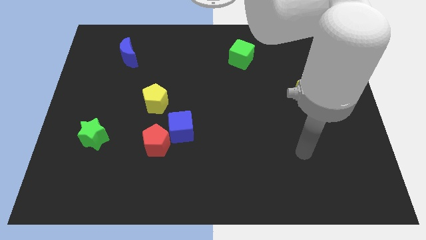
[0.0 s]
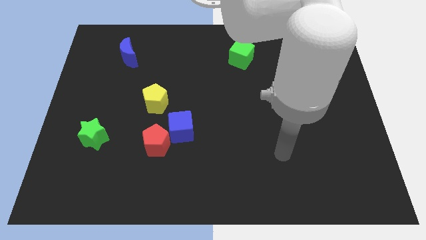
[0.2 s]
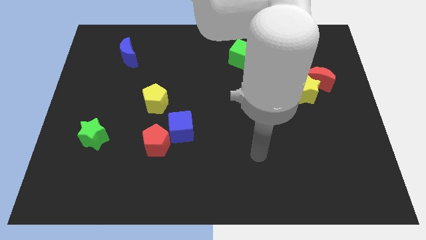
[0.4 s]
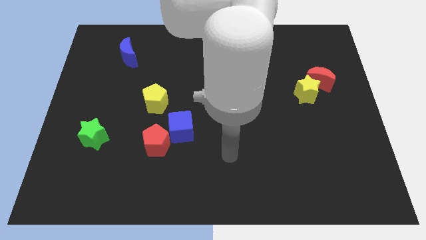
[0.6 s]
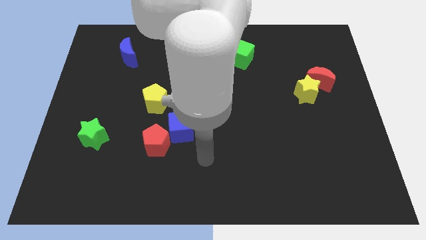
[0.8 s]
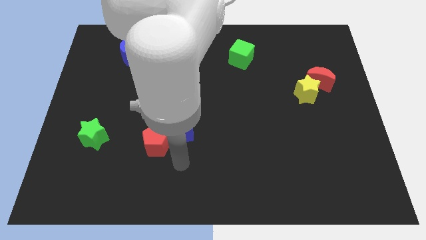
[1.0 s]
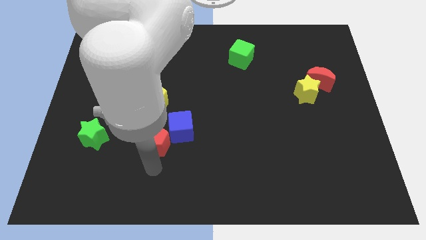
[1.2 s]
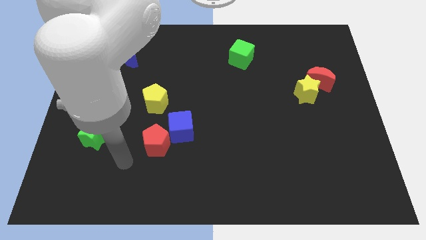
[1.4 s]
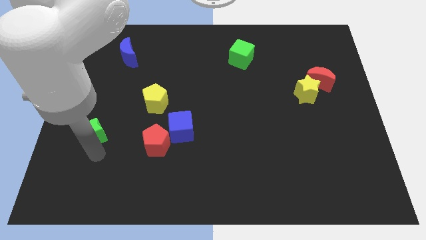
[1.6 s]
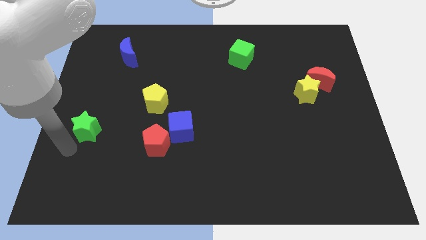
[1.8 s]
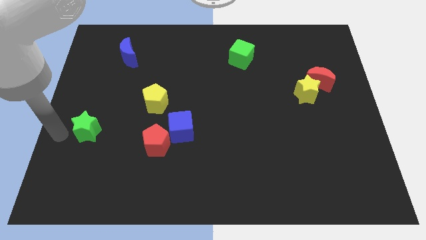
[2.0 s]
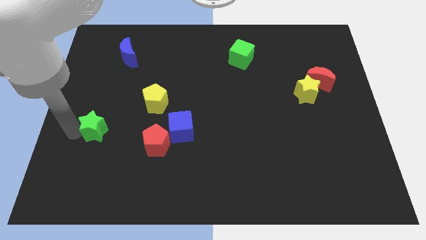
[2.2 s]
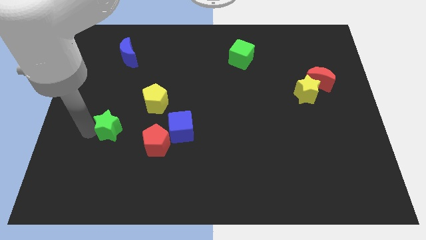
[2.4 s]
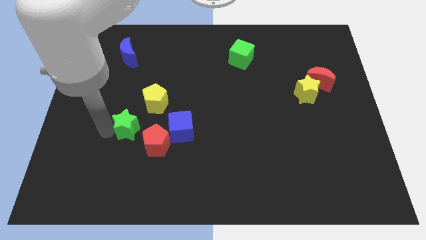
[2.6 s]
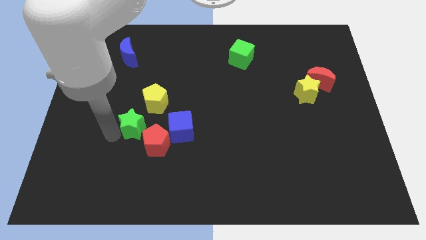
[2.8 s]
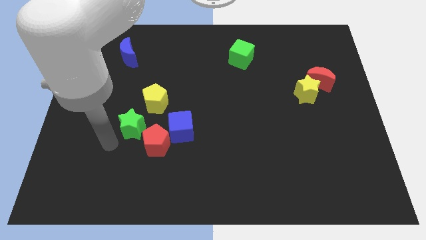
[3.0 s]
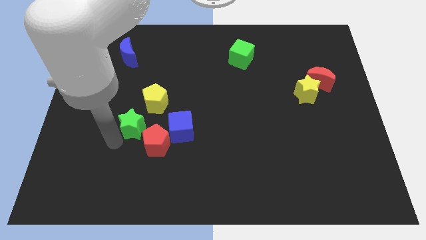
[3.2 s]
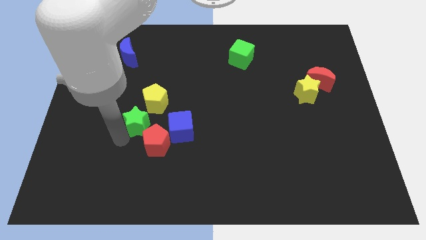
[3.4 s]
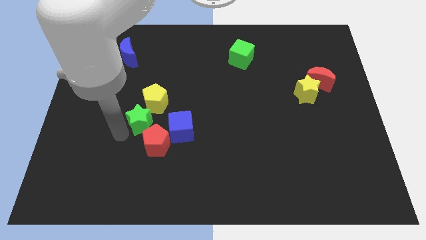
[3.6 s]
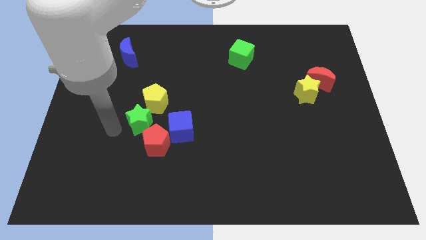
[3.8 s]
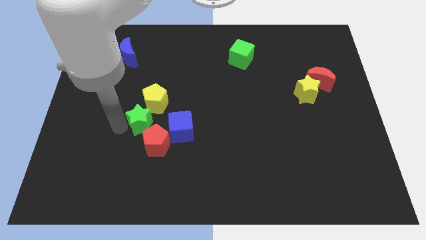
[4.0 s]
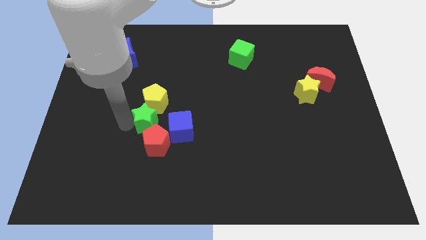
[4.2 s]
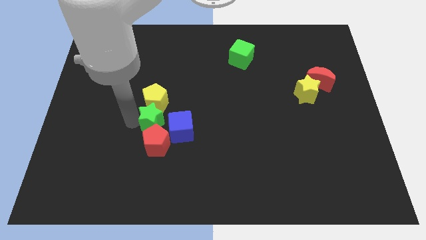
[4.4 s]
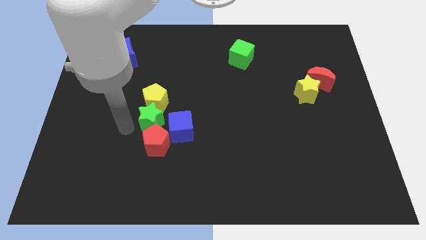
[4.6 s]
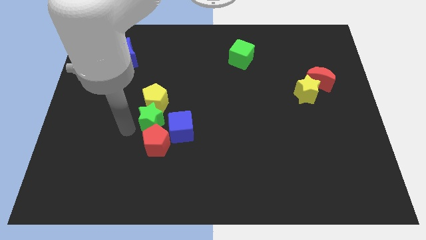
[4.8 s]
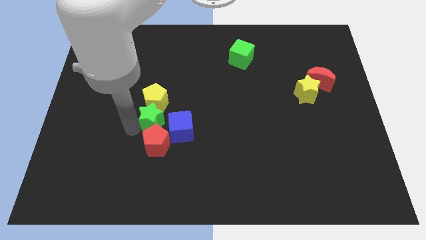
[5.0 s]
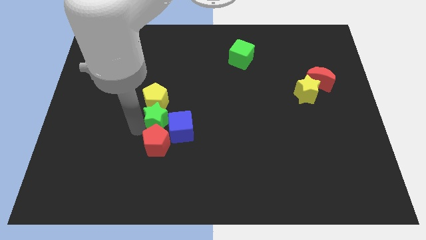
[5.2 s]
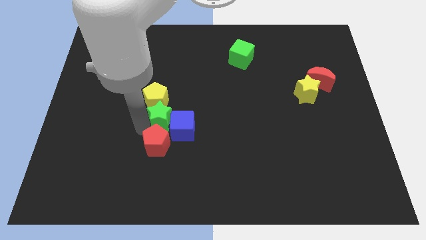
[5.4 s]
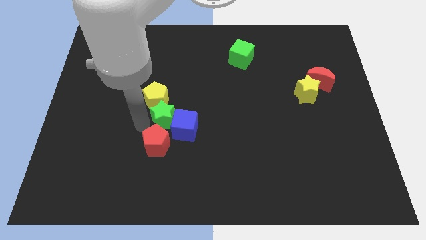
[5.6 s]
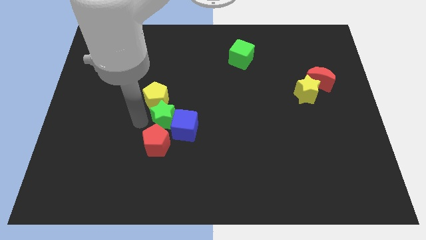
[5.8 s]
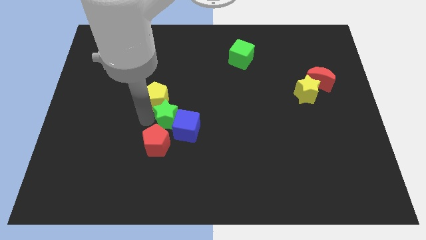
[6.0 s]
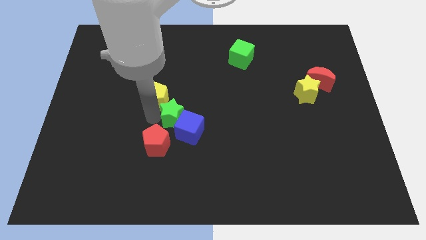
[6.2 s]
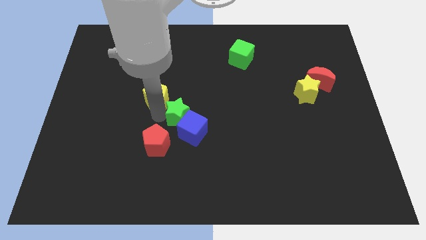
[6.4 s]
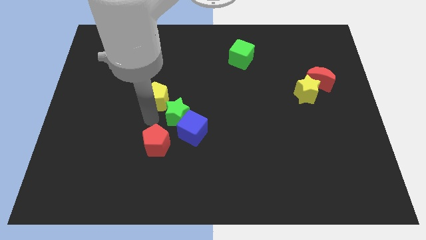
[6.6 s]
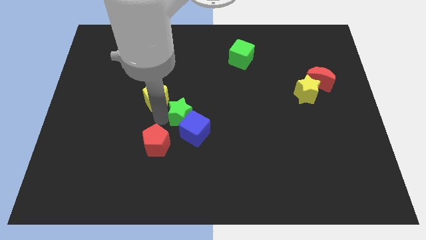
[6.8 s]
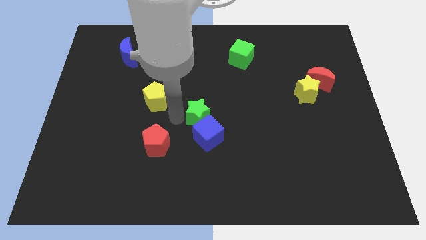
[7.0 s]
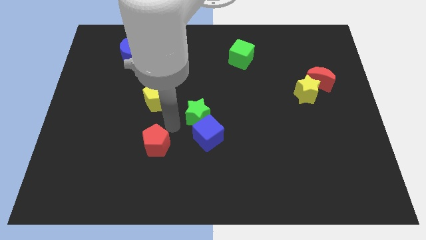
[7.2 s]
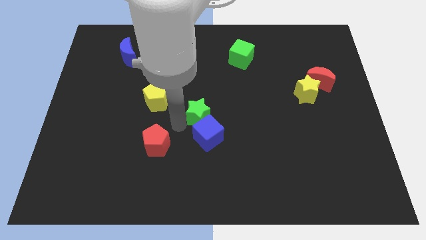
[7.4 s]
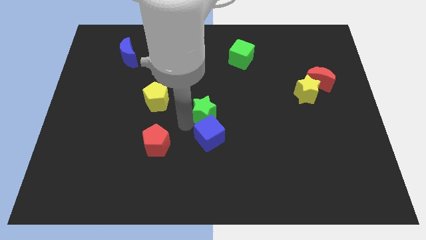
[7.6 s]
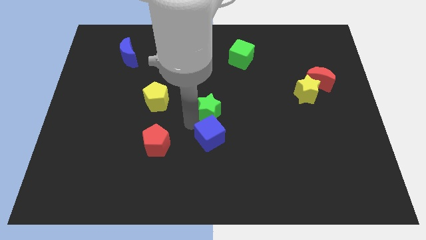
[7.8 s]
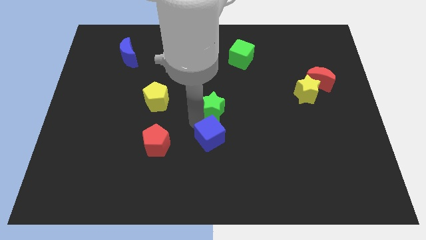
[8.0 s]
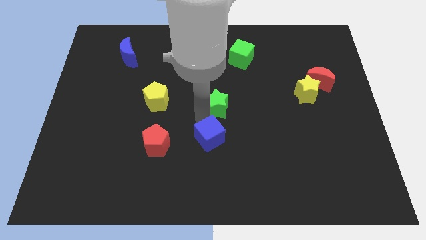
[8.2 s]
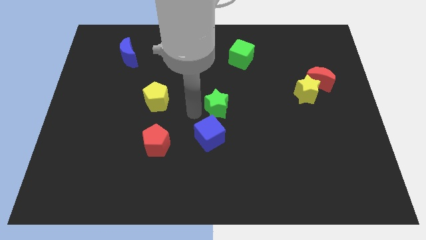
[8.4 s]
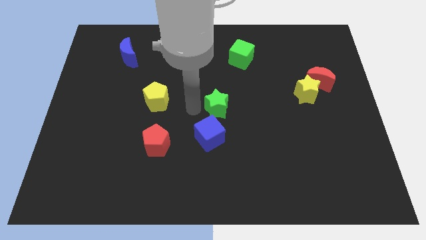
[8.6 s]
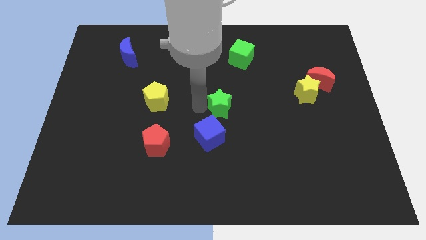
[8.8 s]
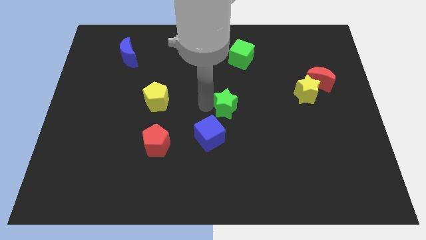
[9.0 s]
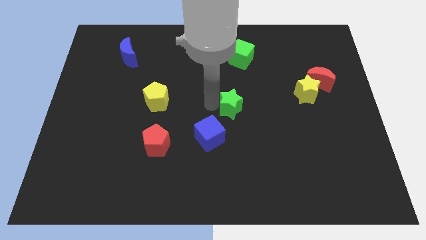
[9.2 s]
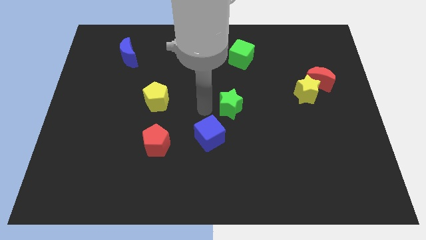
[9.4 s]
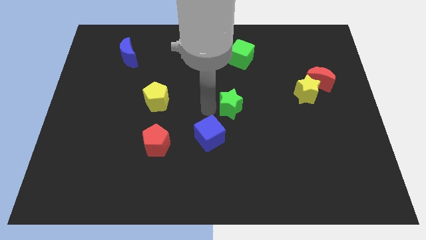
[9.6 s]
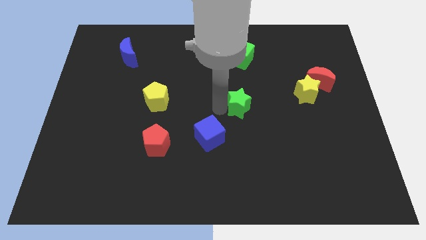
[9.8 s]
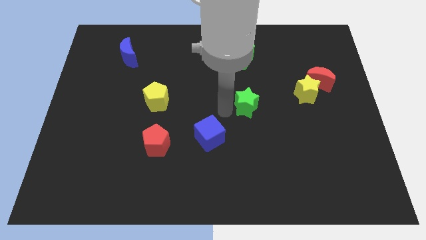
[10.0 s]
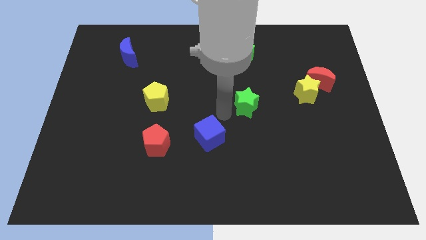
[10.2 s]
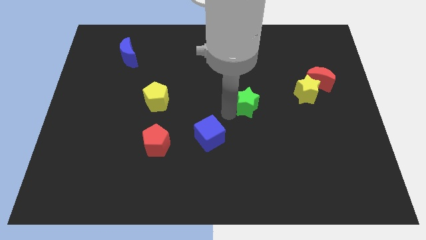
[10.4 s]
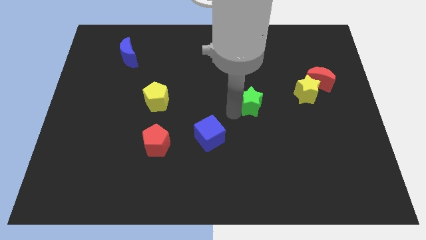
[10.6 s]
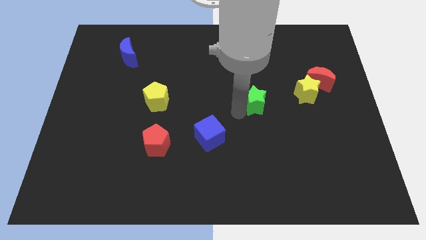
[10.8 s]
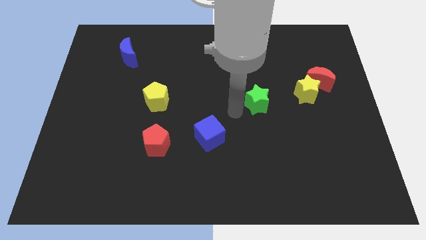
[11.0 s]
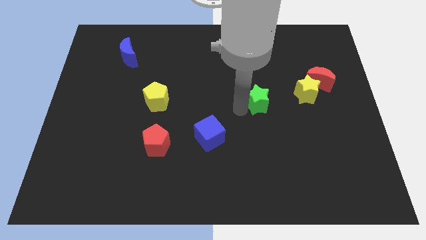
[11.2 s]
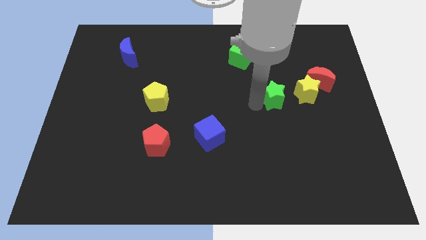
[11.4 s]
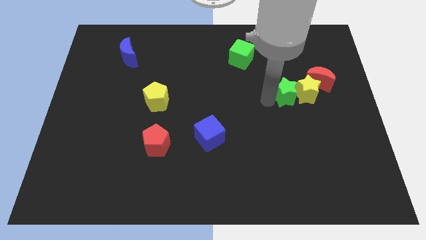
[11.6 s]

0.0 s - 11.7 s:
put the green star next to the yellow star
